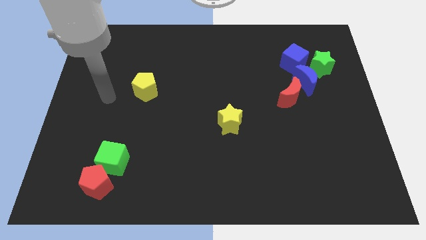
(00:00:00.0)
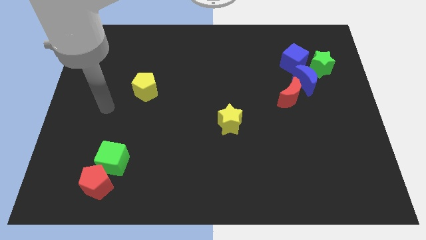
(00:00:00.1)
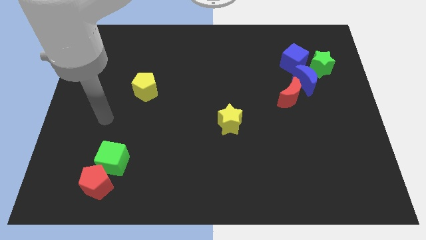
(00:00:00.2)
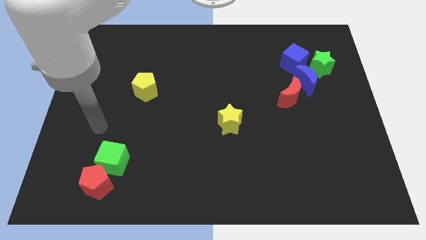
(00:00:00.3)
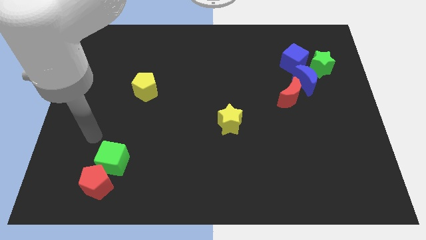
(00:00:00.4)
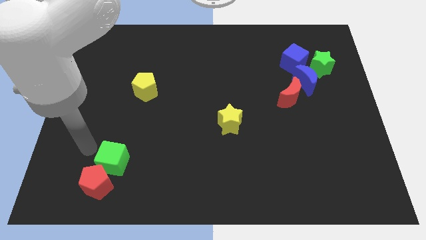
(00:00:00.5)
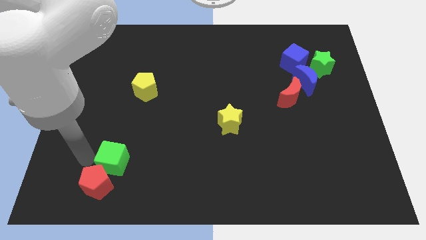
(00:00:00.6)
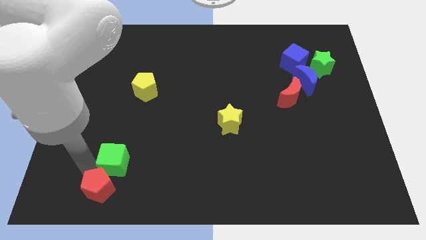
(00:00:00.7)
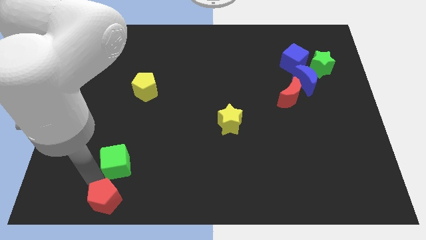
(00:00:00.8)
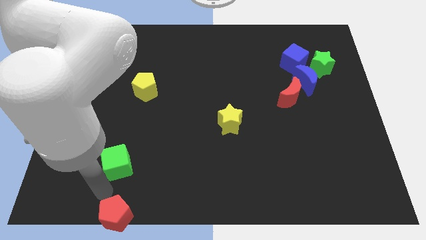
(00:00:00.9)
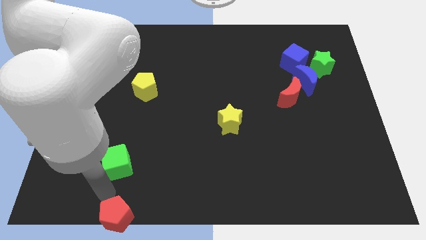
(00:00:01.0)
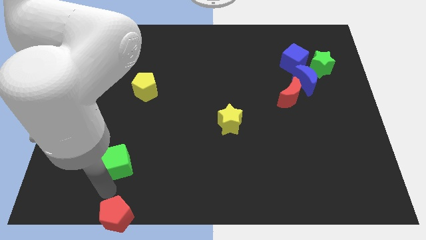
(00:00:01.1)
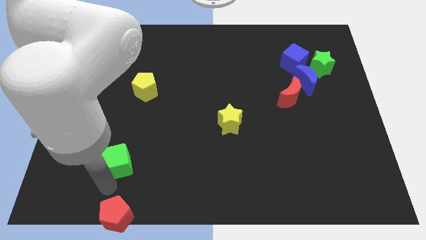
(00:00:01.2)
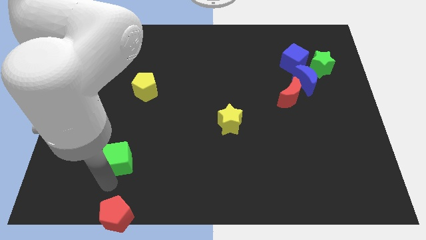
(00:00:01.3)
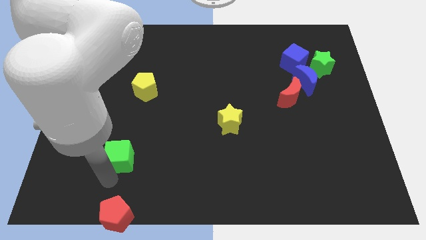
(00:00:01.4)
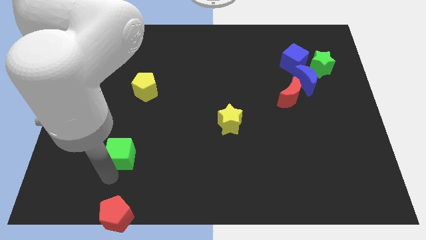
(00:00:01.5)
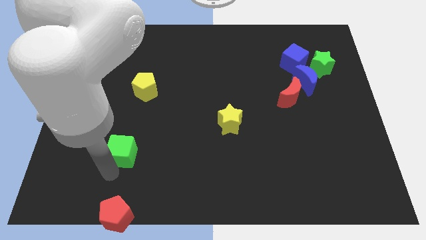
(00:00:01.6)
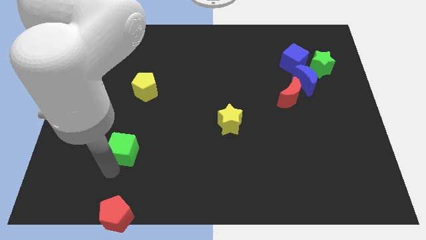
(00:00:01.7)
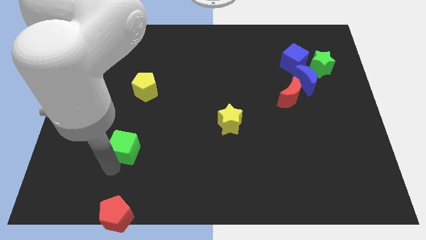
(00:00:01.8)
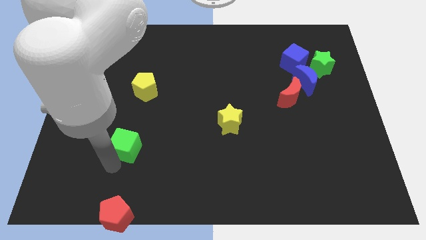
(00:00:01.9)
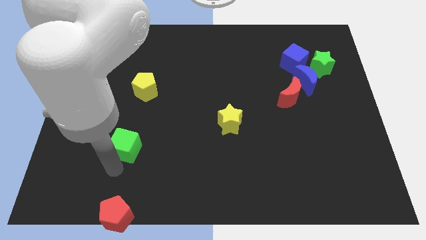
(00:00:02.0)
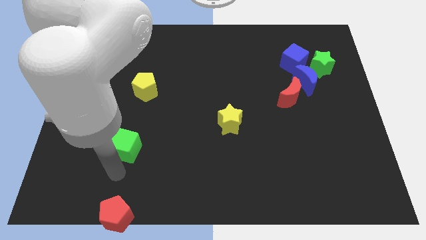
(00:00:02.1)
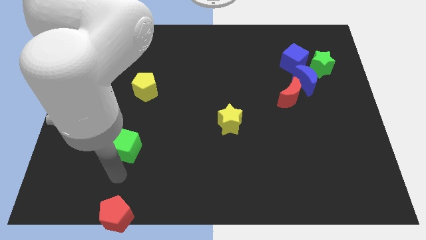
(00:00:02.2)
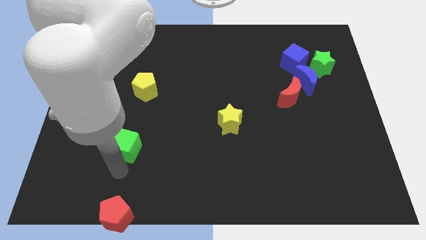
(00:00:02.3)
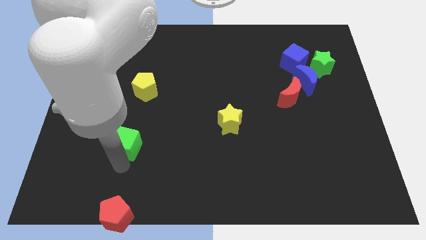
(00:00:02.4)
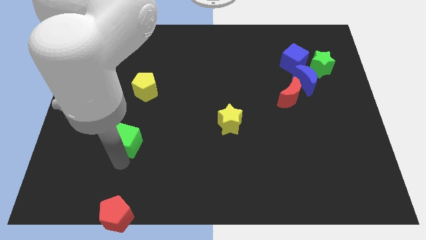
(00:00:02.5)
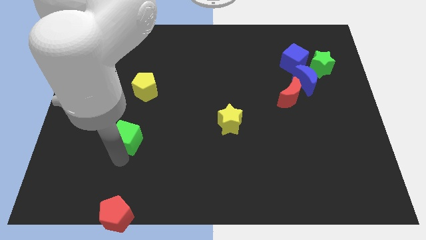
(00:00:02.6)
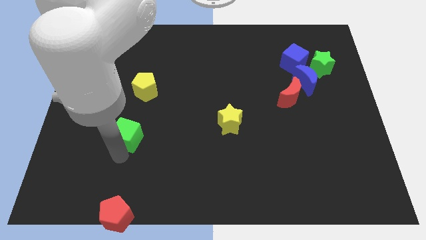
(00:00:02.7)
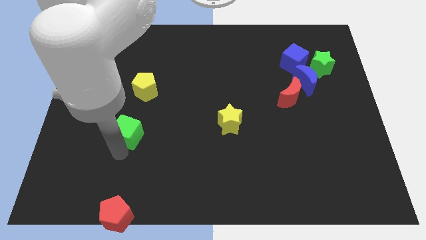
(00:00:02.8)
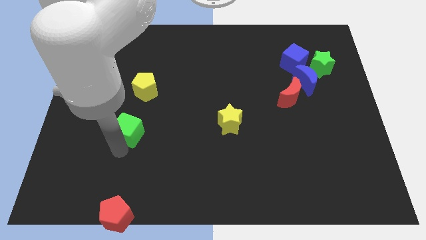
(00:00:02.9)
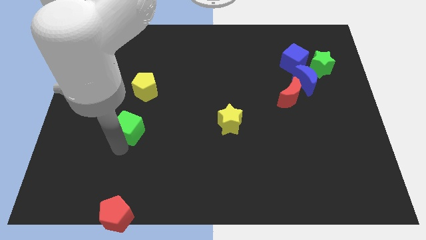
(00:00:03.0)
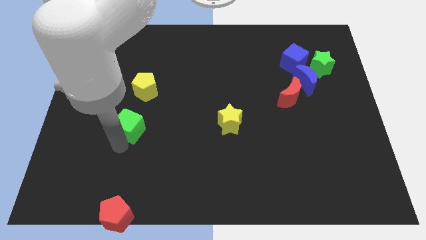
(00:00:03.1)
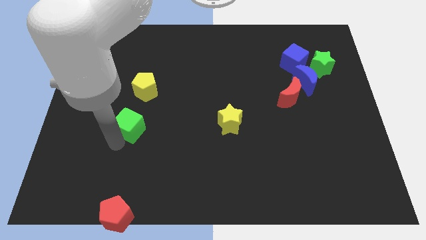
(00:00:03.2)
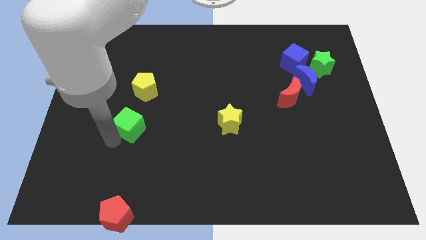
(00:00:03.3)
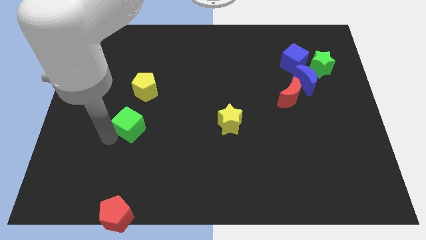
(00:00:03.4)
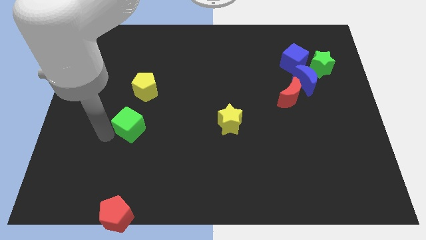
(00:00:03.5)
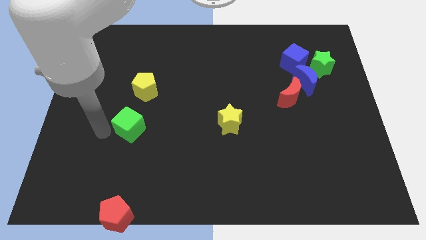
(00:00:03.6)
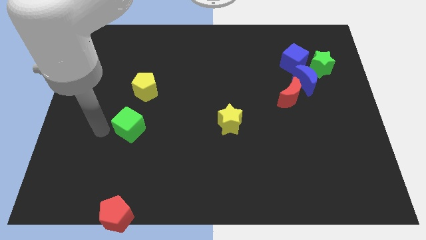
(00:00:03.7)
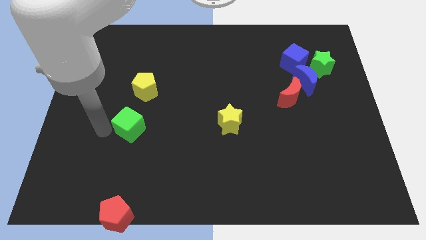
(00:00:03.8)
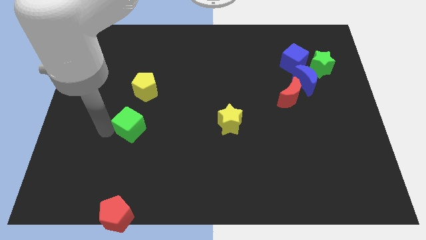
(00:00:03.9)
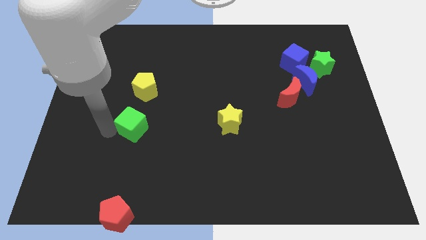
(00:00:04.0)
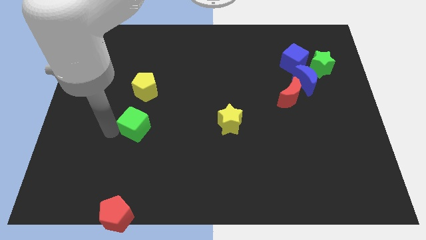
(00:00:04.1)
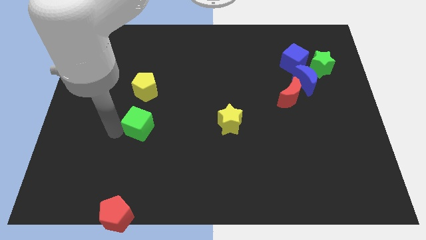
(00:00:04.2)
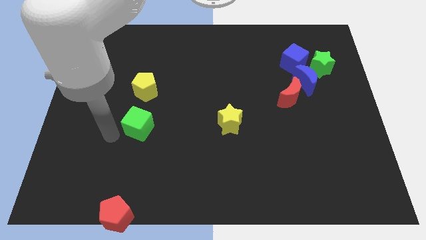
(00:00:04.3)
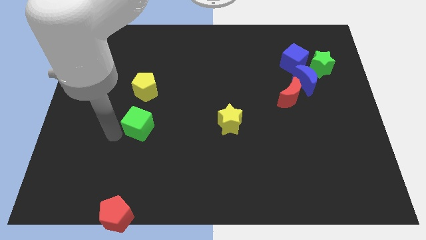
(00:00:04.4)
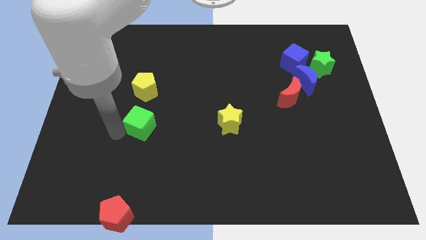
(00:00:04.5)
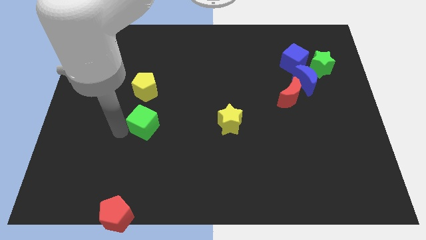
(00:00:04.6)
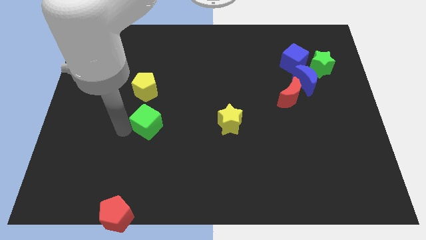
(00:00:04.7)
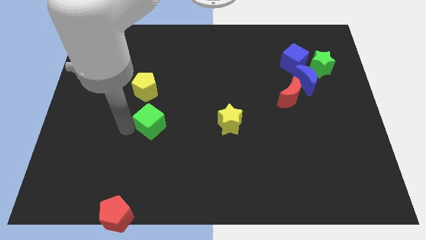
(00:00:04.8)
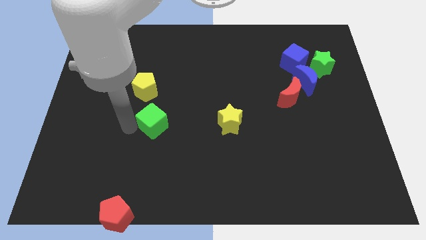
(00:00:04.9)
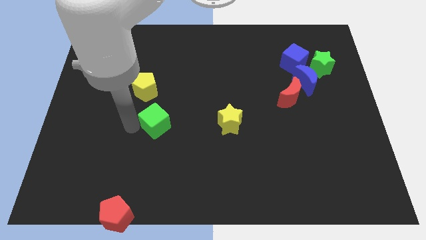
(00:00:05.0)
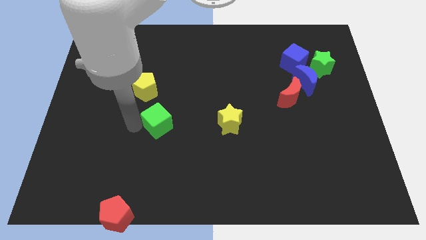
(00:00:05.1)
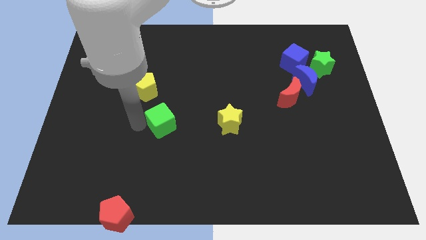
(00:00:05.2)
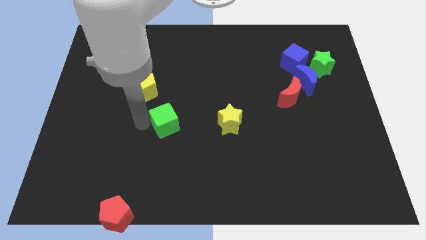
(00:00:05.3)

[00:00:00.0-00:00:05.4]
move the green cube to the center

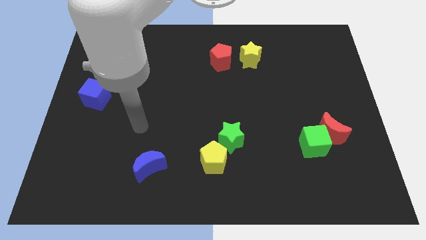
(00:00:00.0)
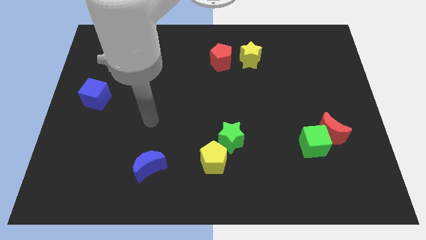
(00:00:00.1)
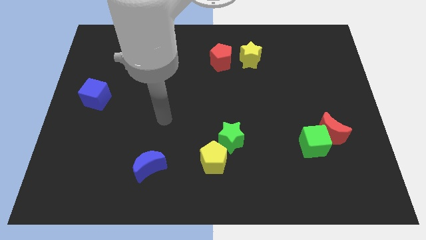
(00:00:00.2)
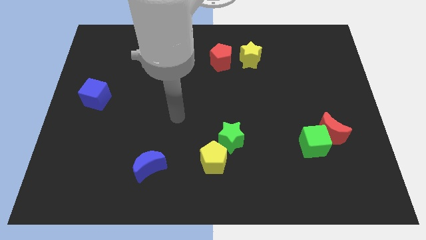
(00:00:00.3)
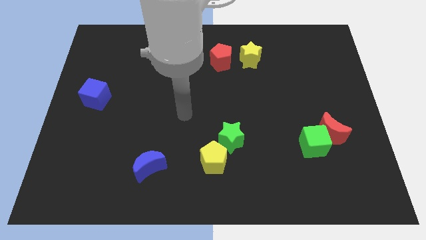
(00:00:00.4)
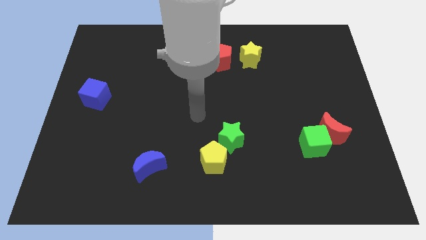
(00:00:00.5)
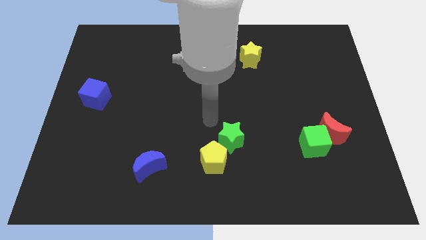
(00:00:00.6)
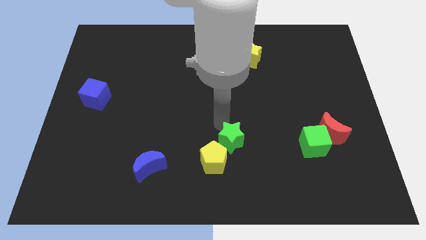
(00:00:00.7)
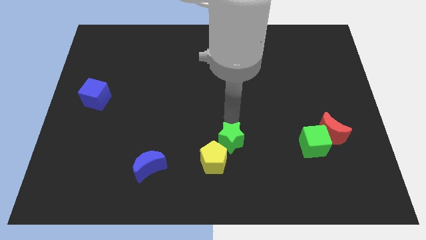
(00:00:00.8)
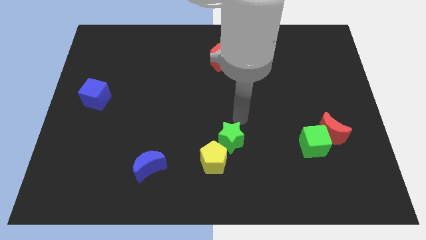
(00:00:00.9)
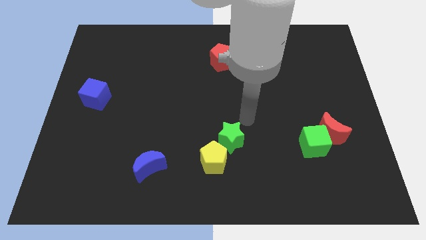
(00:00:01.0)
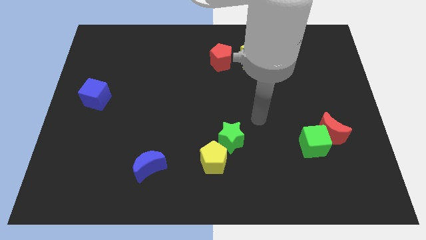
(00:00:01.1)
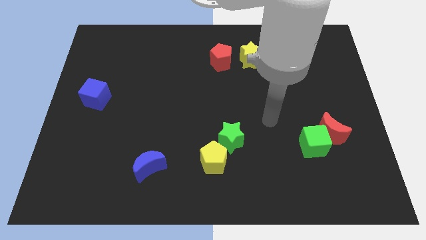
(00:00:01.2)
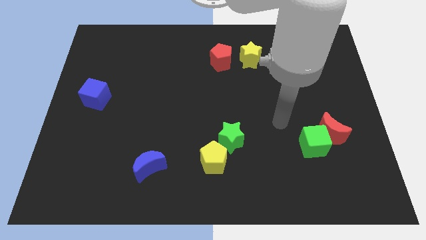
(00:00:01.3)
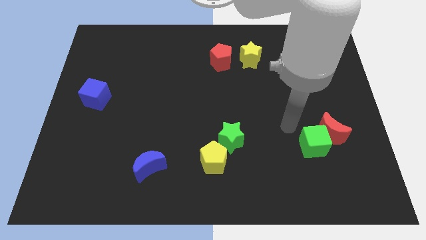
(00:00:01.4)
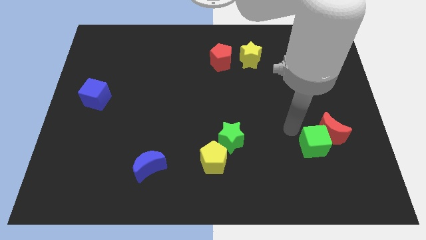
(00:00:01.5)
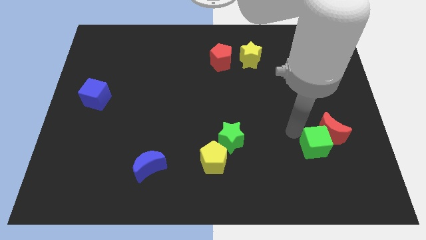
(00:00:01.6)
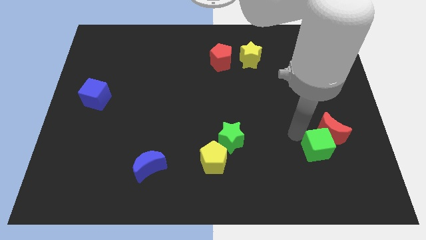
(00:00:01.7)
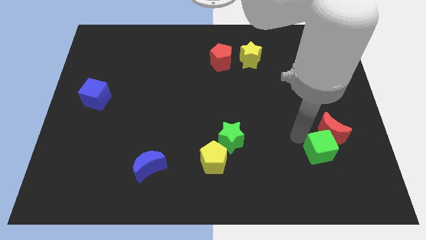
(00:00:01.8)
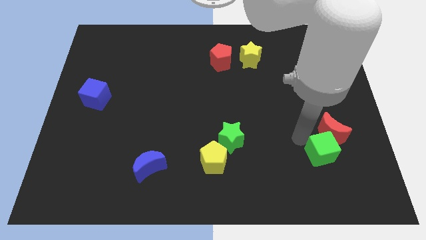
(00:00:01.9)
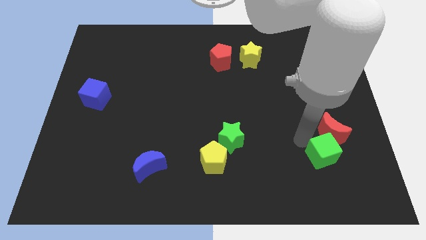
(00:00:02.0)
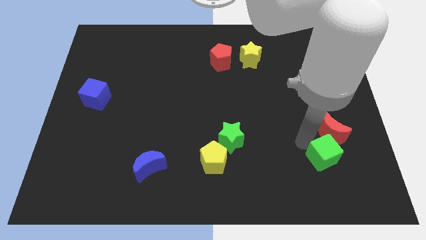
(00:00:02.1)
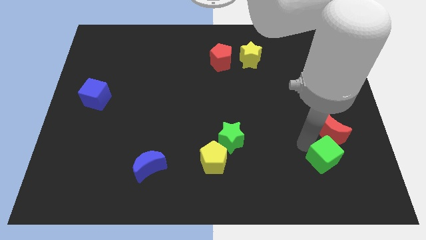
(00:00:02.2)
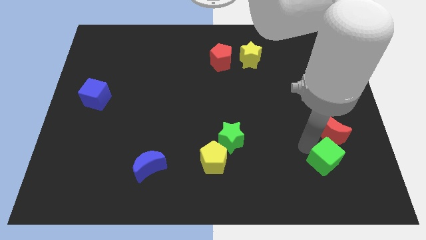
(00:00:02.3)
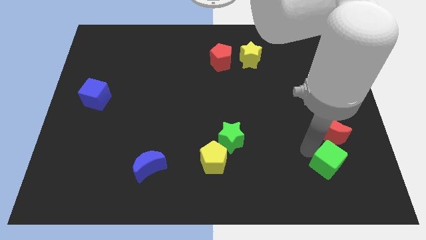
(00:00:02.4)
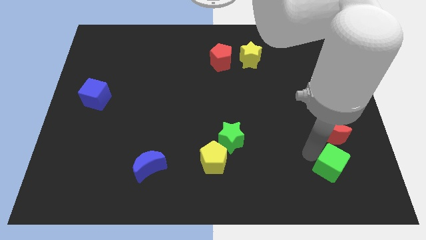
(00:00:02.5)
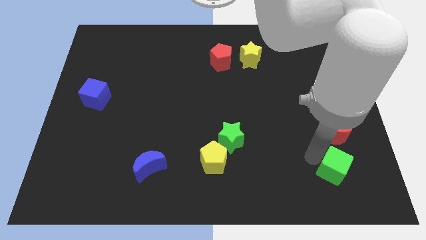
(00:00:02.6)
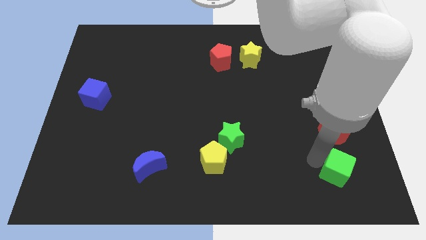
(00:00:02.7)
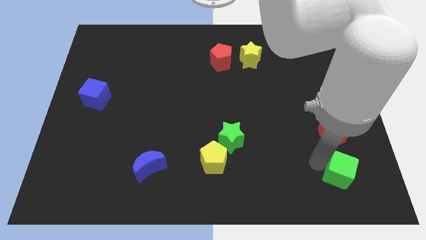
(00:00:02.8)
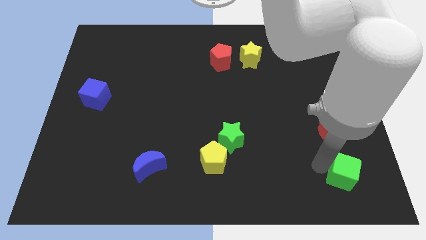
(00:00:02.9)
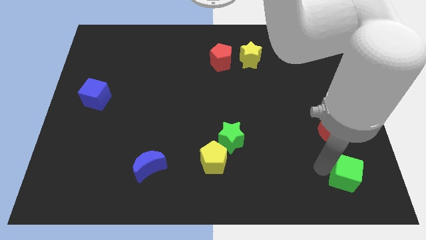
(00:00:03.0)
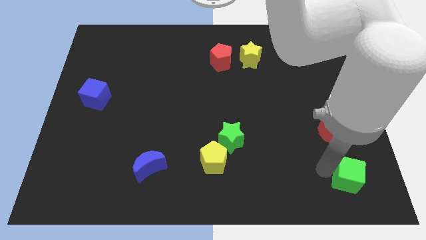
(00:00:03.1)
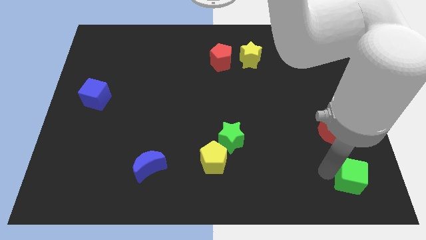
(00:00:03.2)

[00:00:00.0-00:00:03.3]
slide the green cube to the lower right corner
